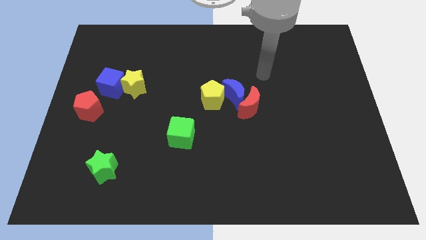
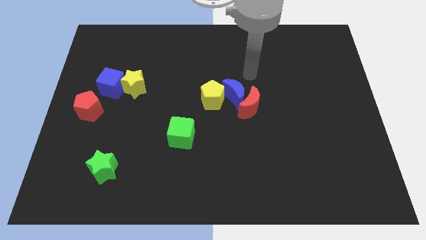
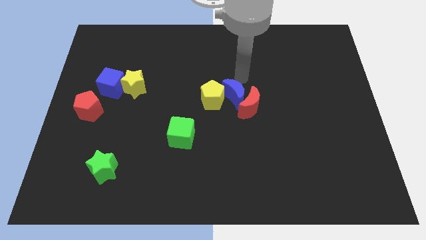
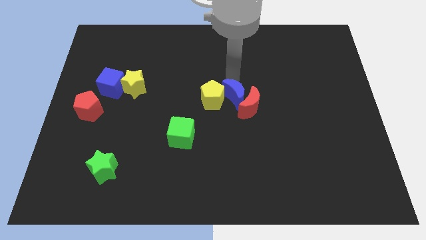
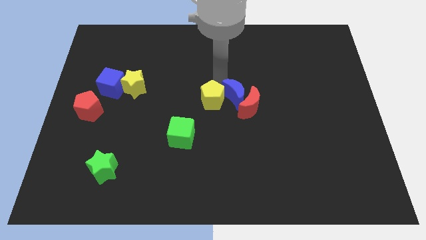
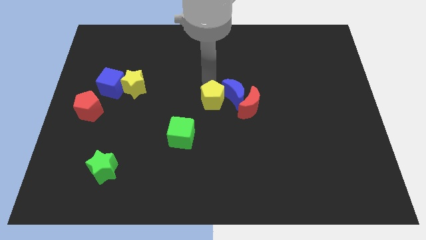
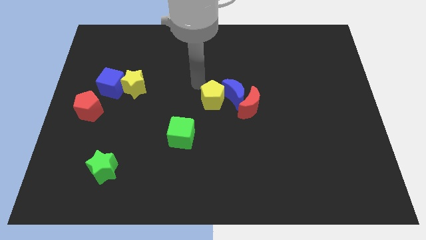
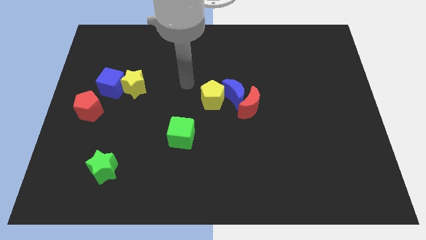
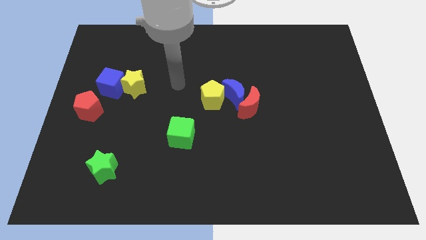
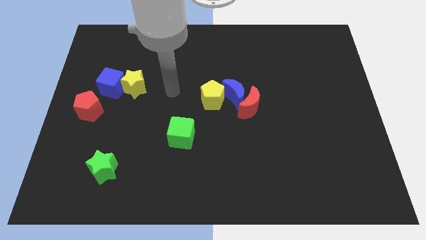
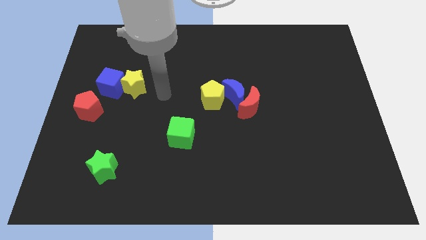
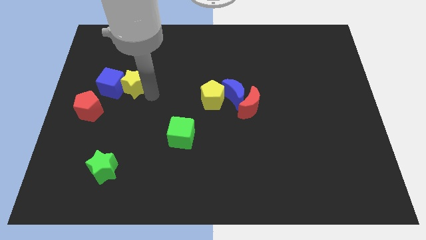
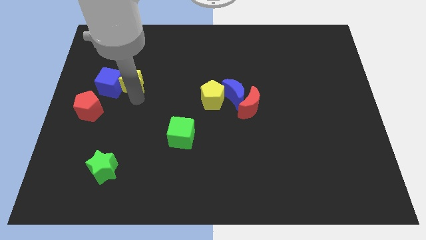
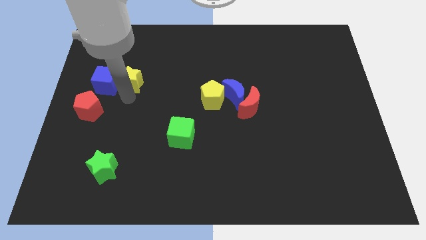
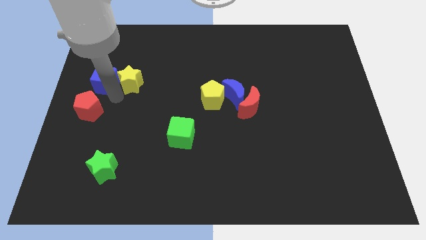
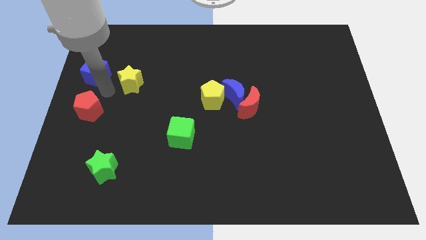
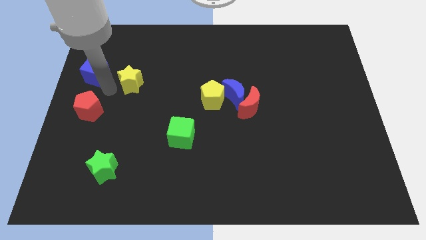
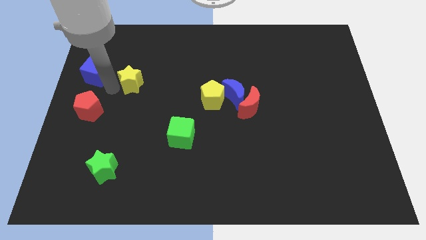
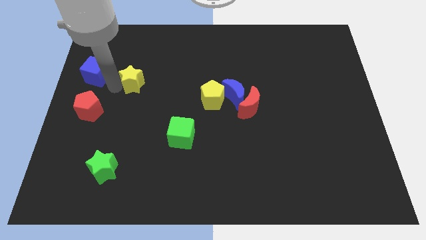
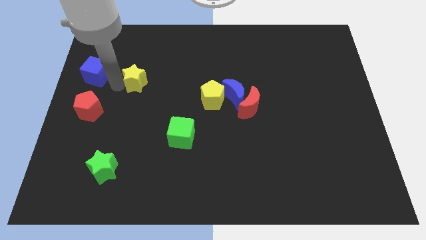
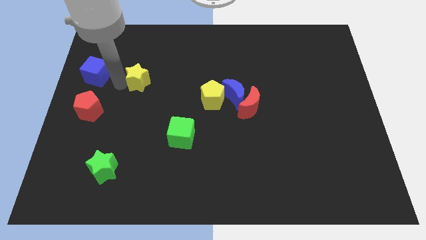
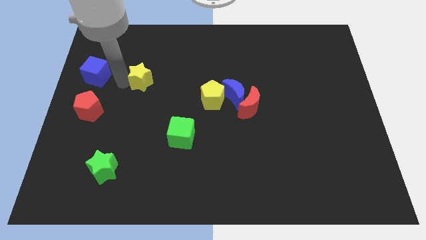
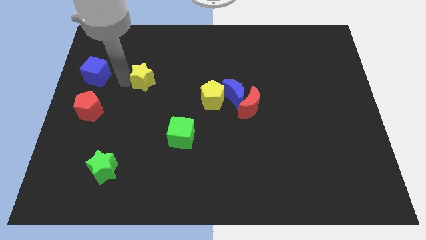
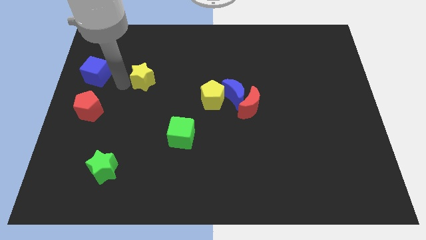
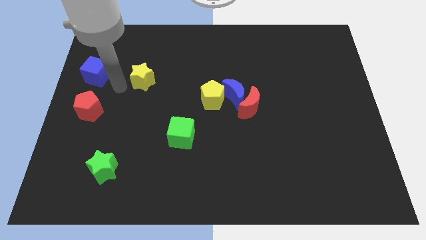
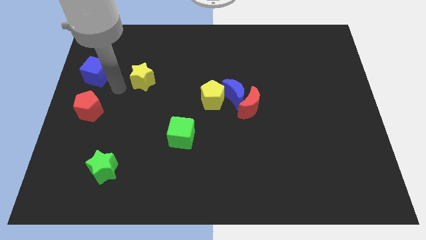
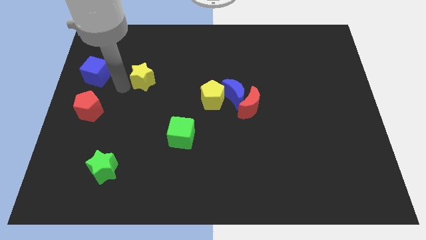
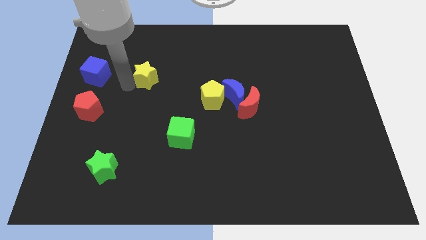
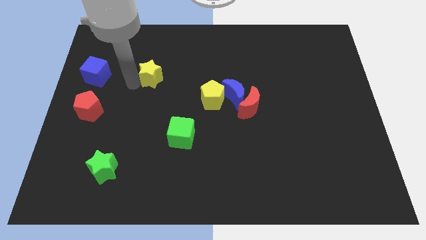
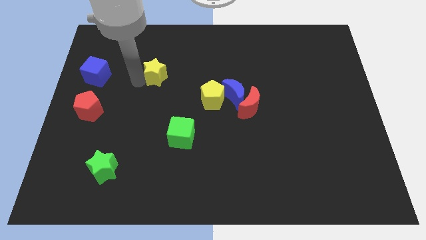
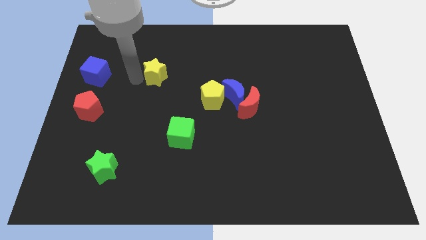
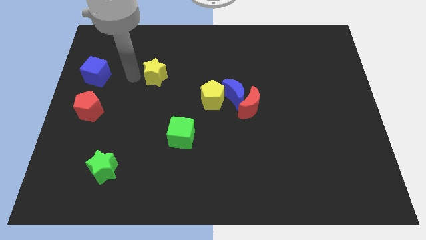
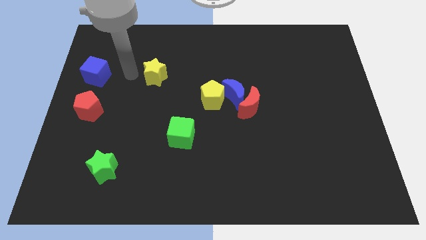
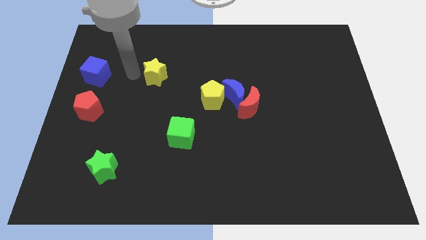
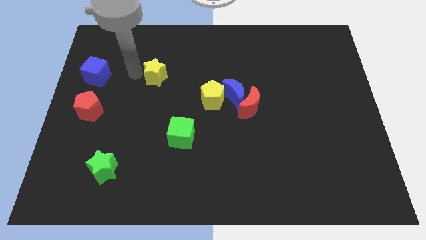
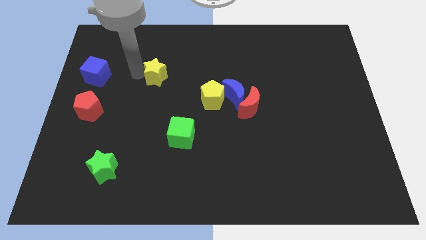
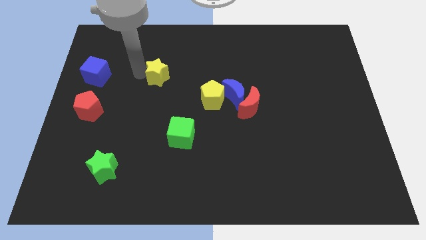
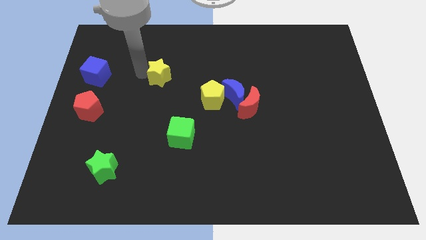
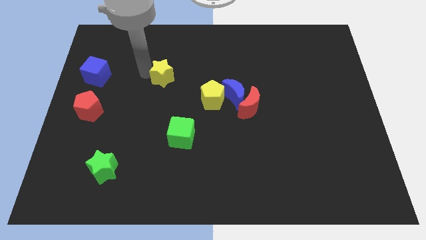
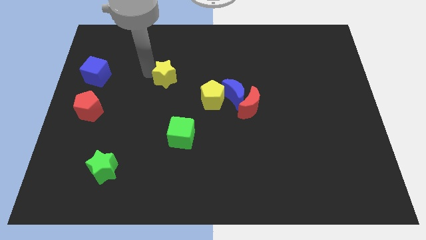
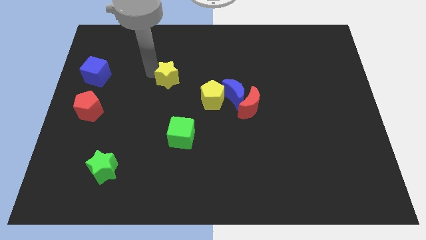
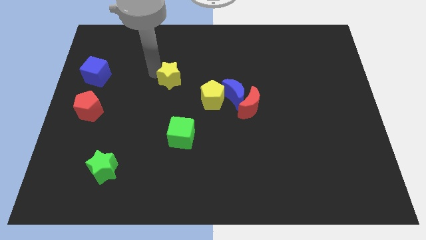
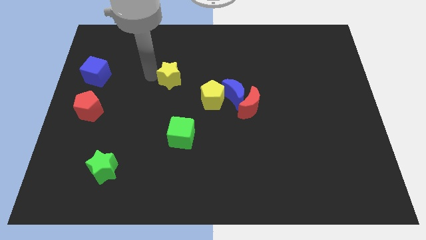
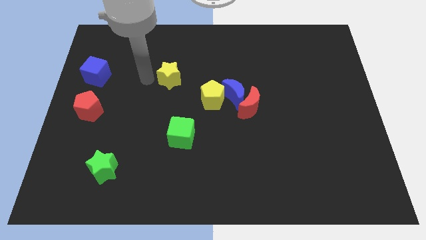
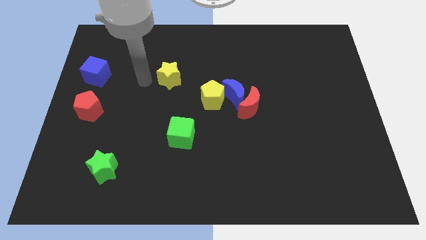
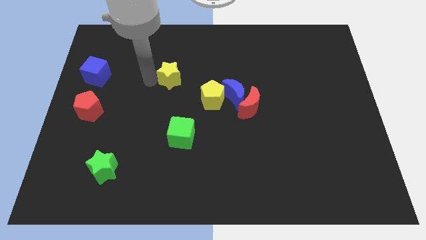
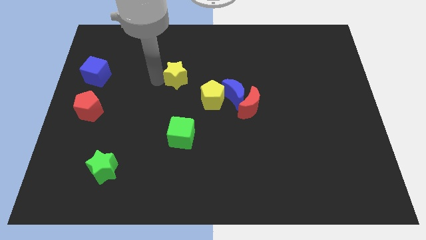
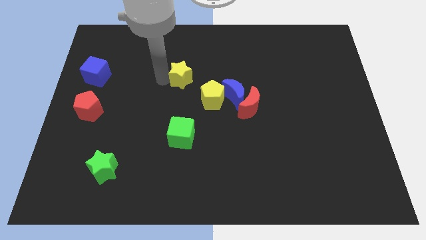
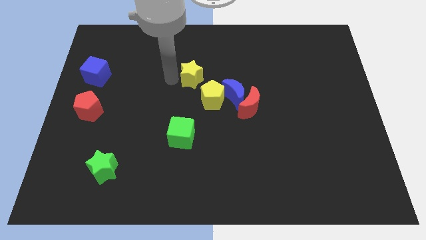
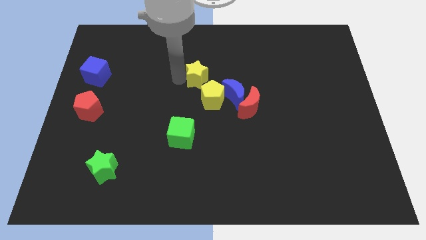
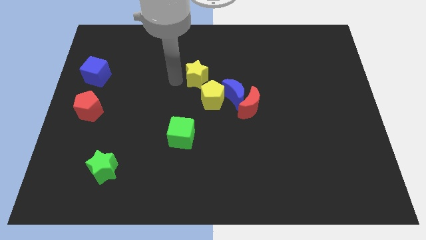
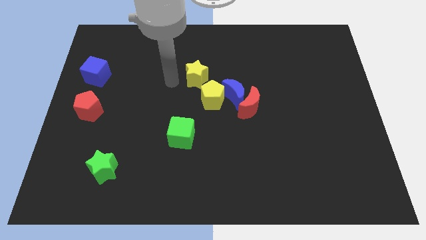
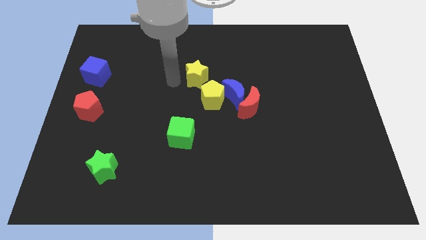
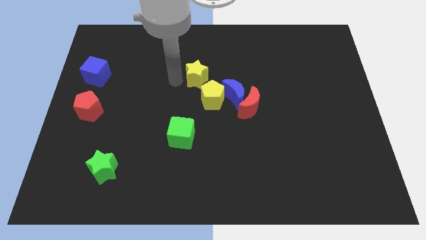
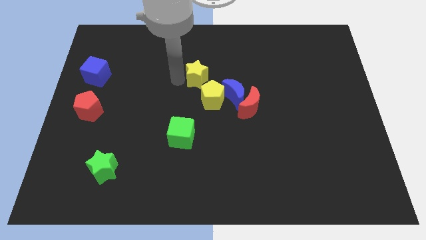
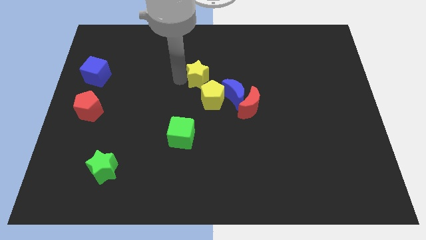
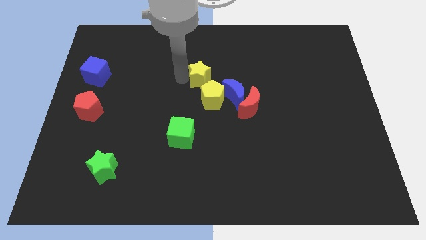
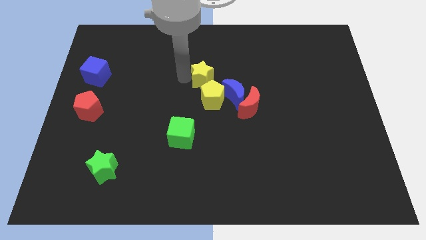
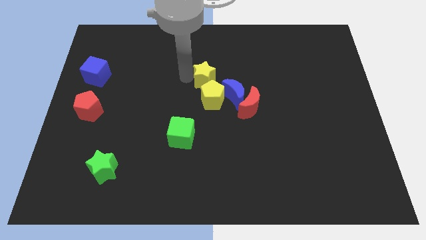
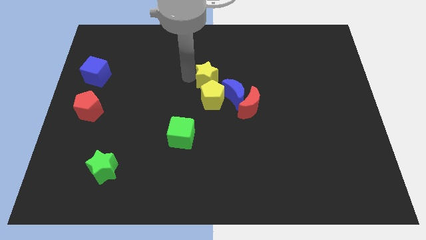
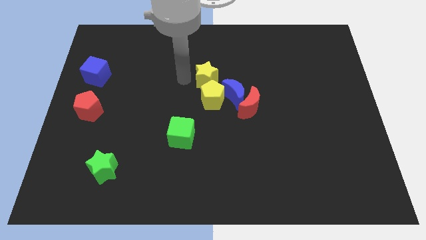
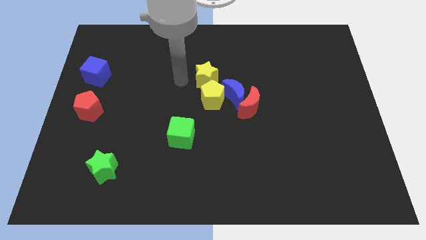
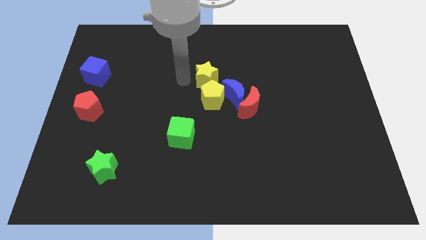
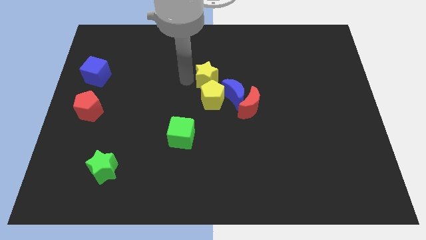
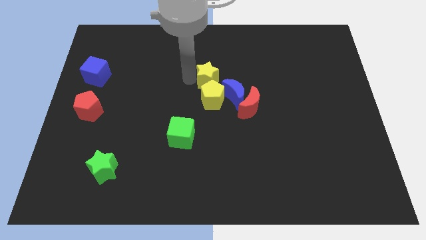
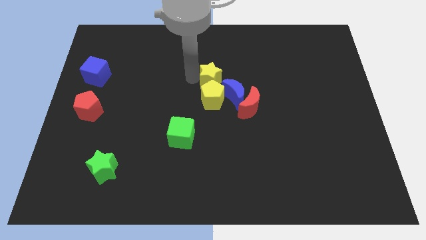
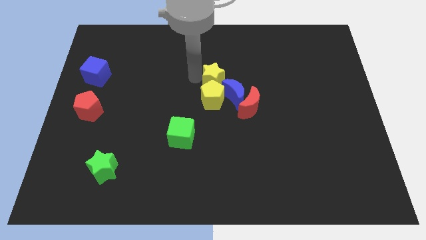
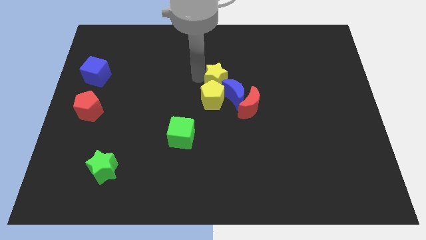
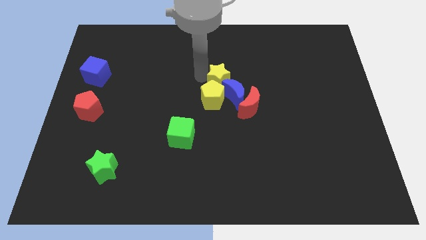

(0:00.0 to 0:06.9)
move the yellow star right

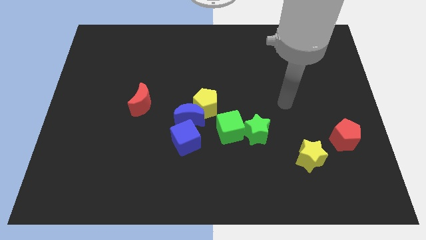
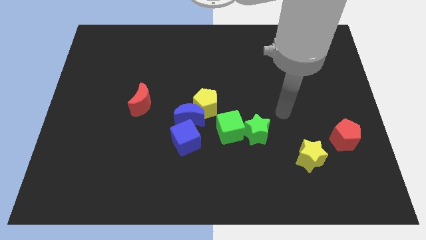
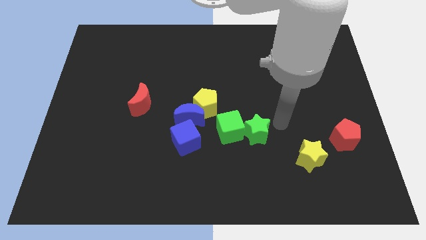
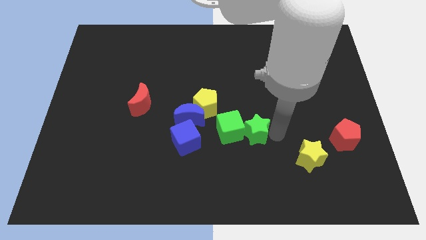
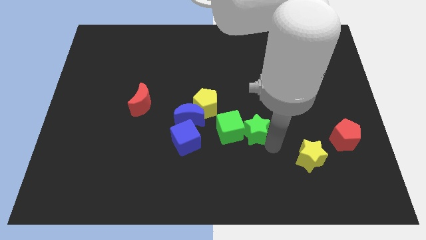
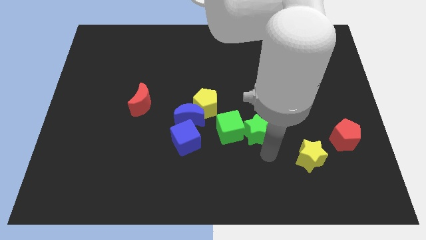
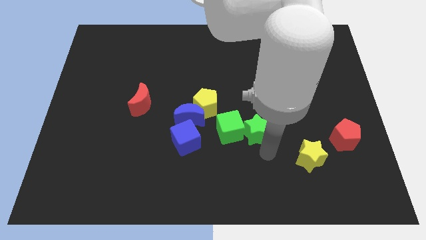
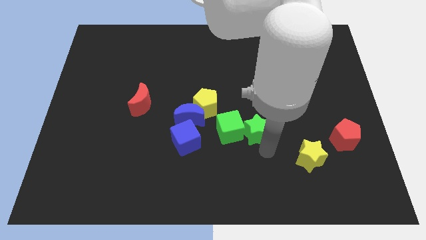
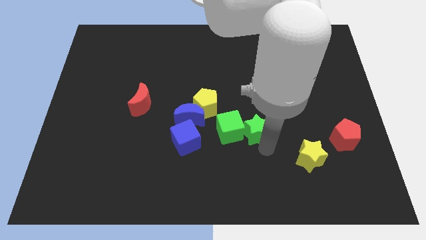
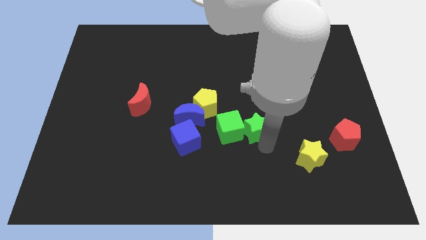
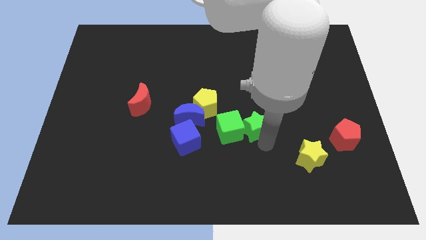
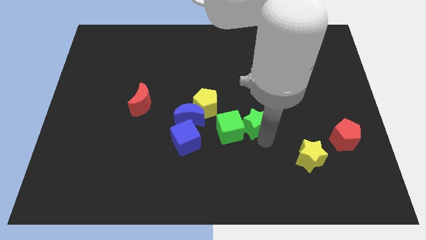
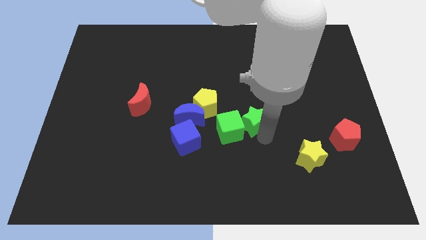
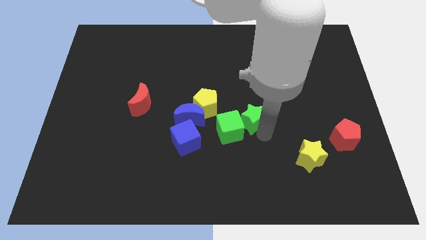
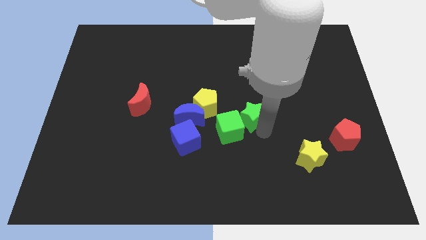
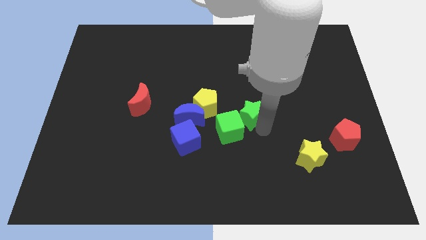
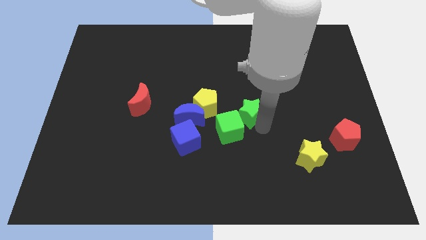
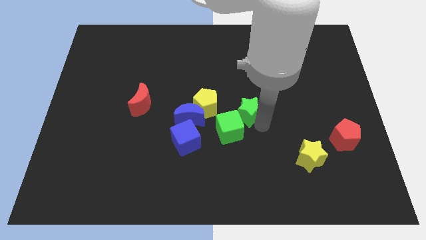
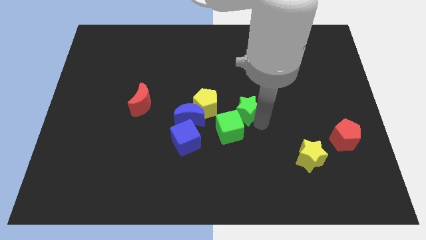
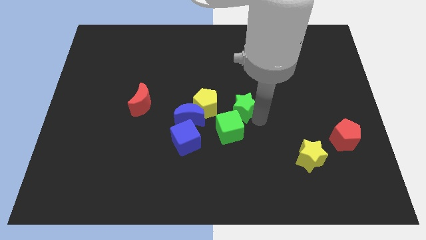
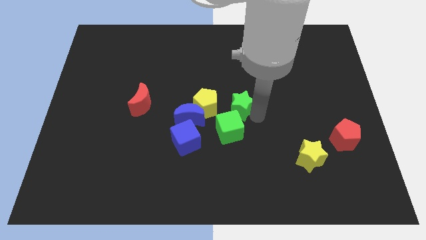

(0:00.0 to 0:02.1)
move the green star upwards and to the left diagonally slightly
